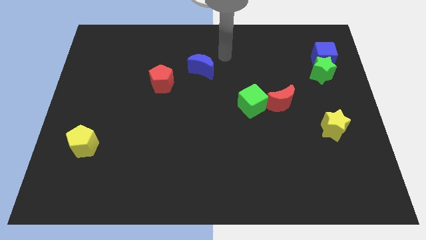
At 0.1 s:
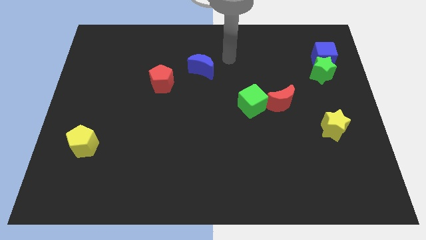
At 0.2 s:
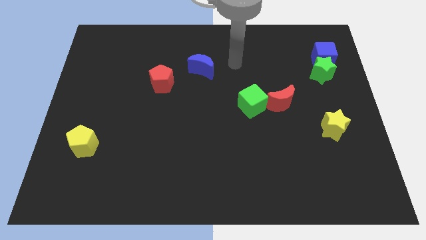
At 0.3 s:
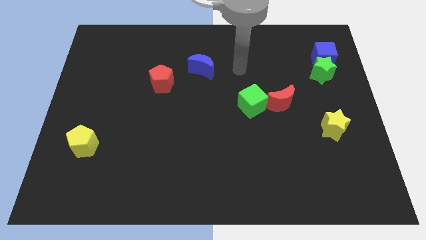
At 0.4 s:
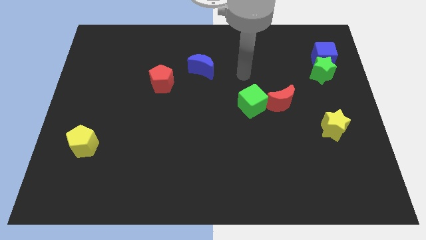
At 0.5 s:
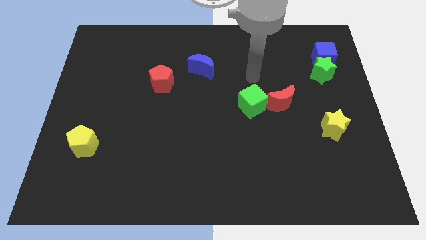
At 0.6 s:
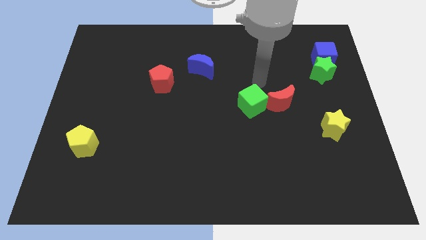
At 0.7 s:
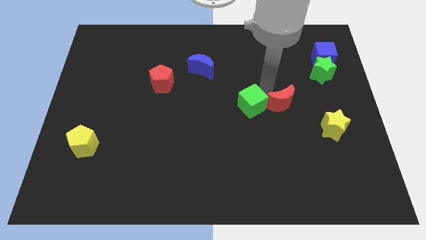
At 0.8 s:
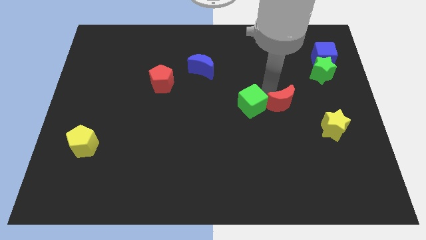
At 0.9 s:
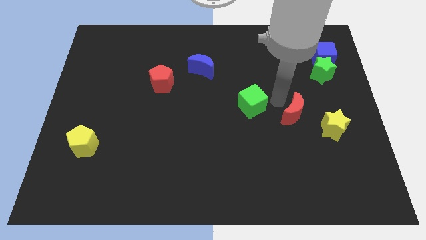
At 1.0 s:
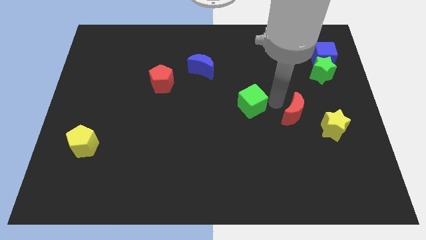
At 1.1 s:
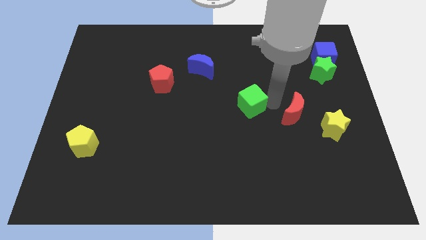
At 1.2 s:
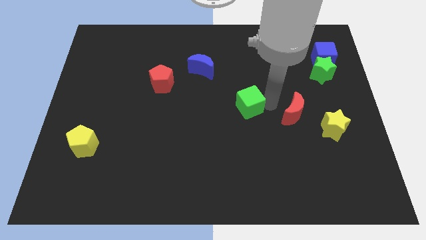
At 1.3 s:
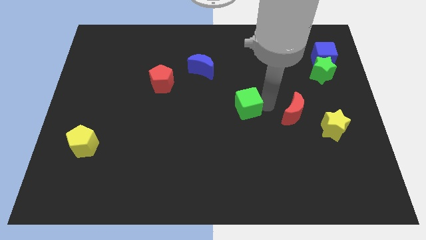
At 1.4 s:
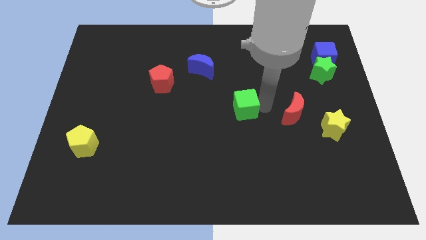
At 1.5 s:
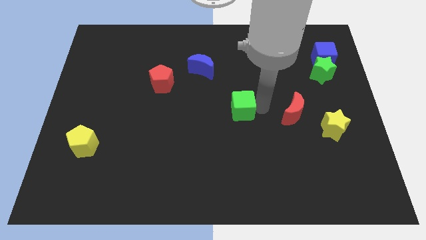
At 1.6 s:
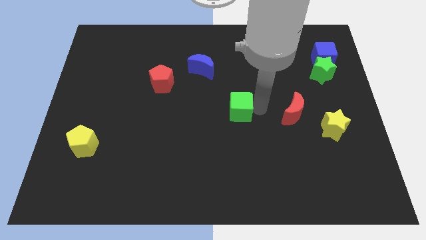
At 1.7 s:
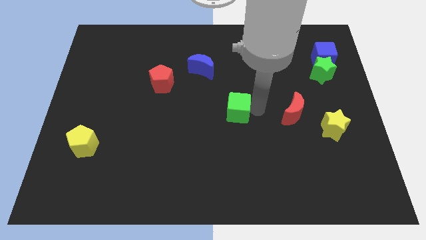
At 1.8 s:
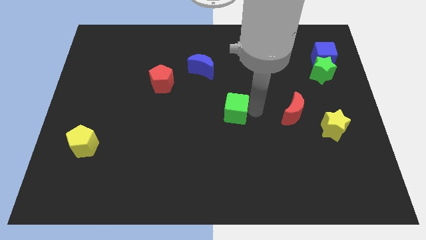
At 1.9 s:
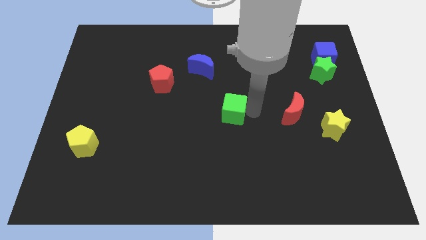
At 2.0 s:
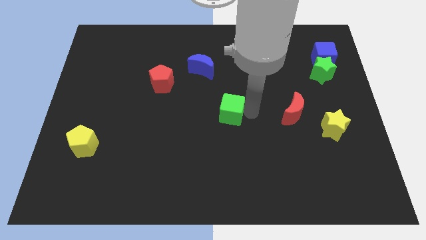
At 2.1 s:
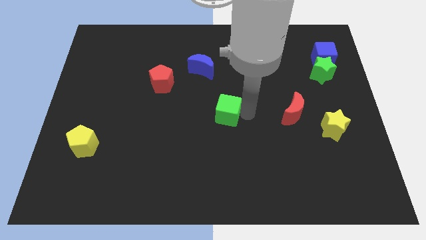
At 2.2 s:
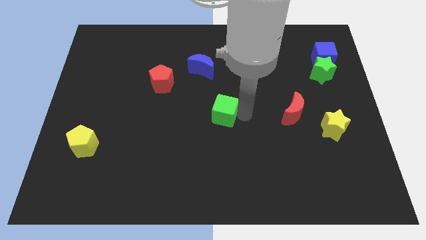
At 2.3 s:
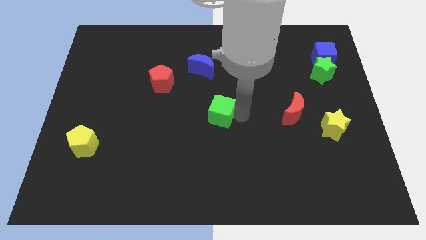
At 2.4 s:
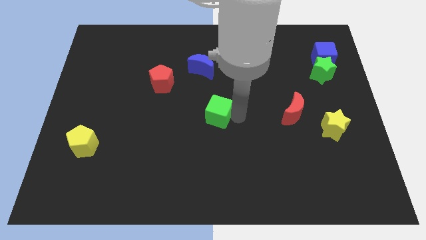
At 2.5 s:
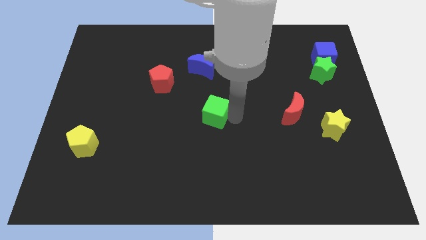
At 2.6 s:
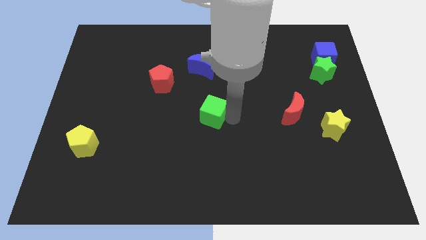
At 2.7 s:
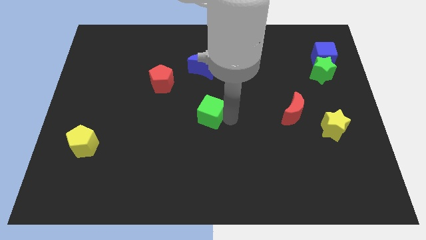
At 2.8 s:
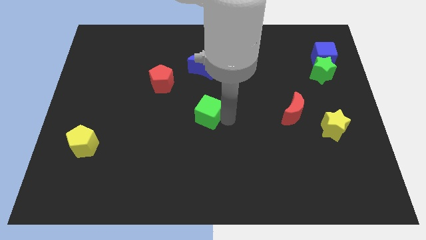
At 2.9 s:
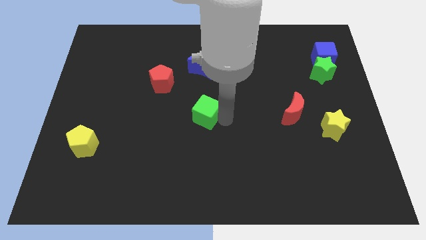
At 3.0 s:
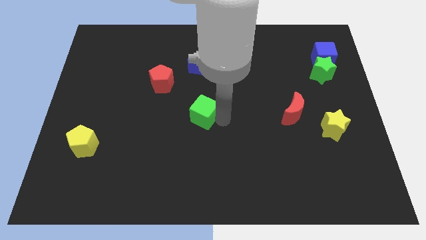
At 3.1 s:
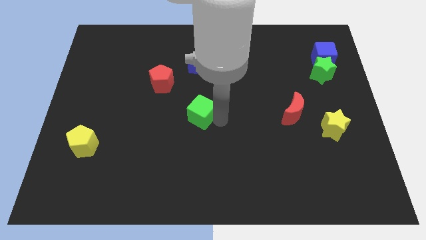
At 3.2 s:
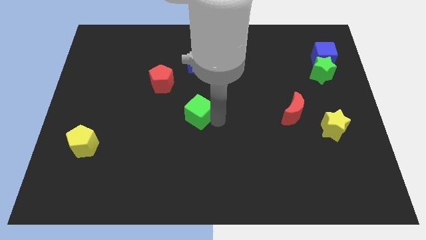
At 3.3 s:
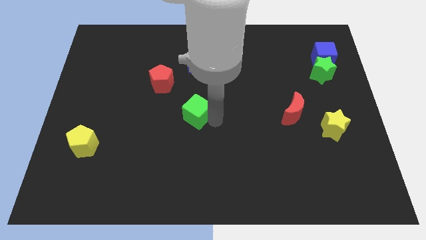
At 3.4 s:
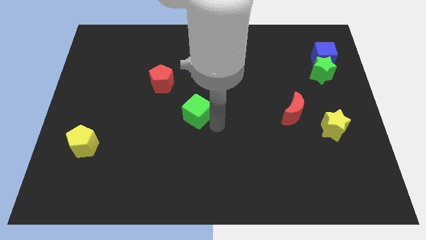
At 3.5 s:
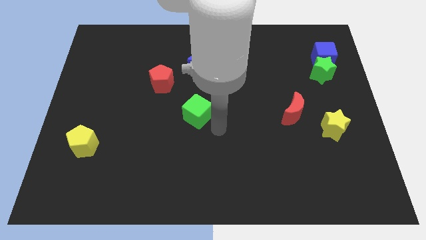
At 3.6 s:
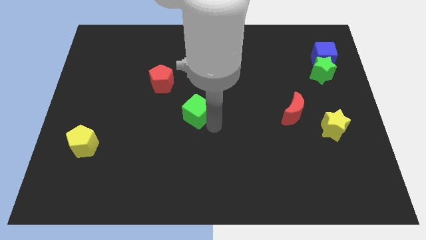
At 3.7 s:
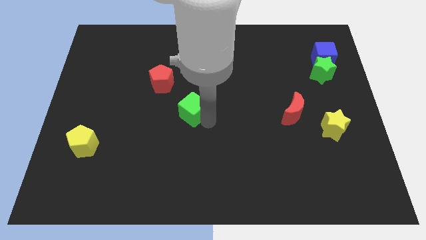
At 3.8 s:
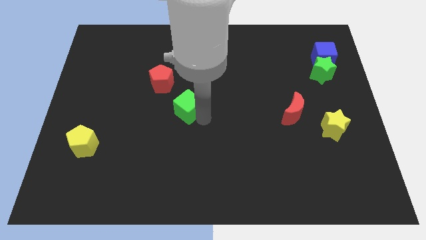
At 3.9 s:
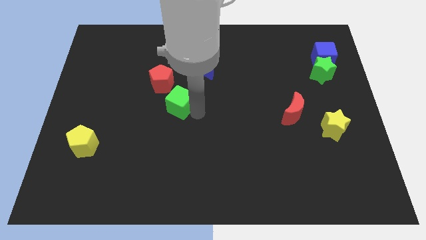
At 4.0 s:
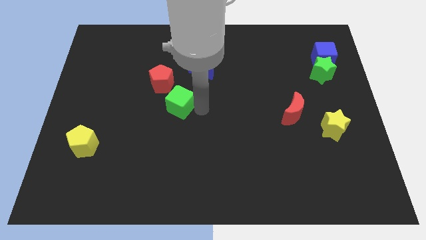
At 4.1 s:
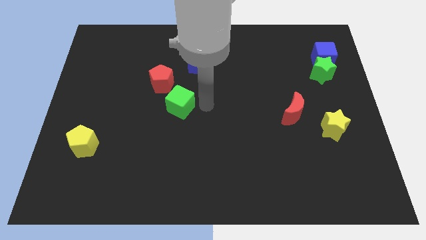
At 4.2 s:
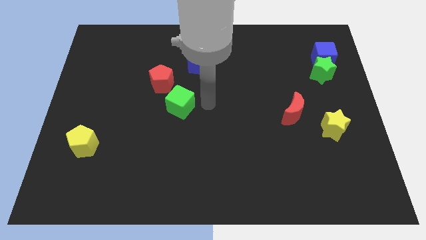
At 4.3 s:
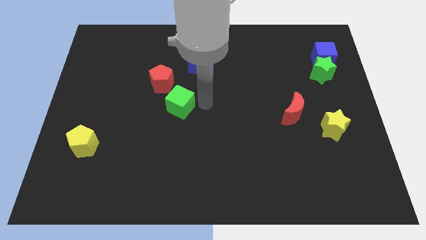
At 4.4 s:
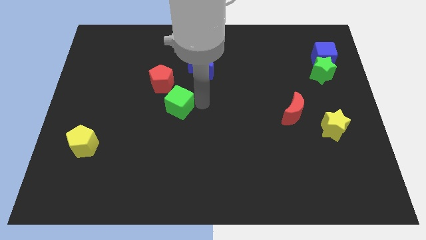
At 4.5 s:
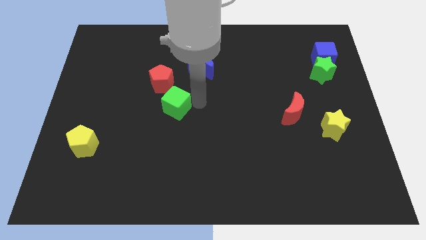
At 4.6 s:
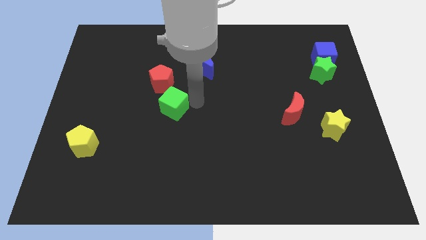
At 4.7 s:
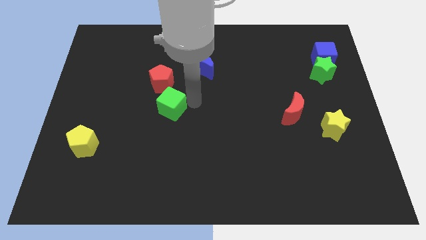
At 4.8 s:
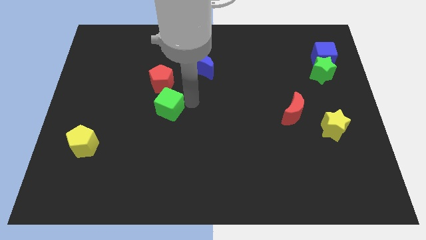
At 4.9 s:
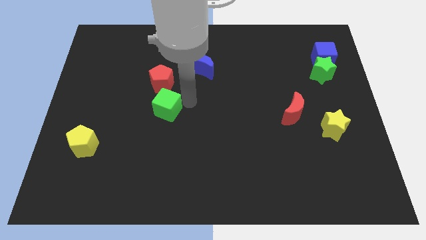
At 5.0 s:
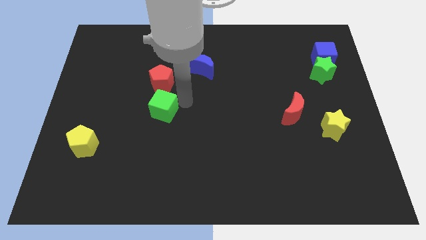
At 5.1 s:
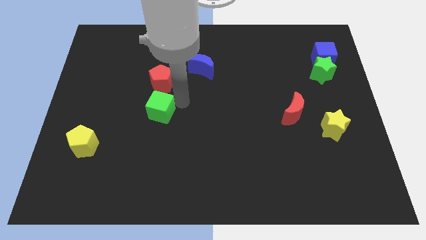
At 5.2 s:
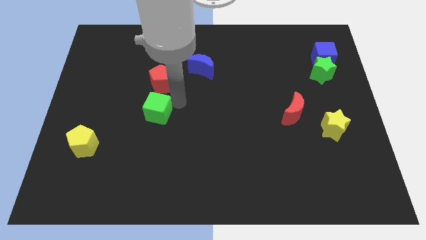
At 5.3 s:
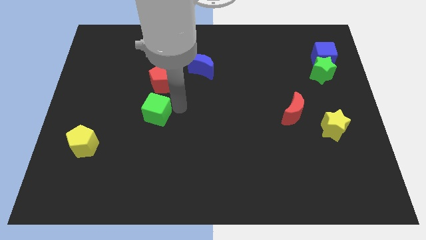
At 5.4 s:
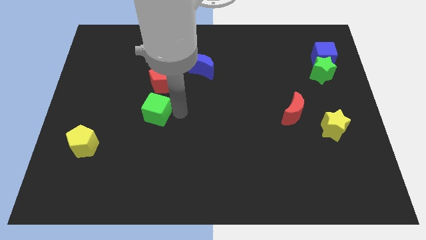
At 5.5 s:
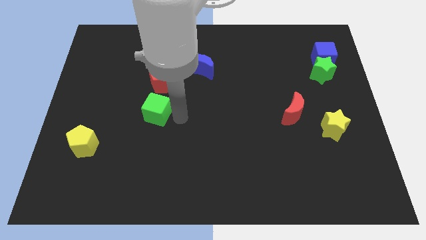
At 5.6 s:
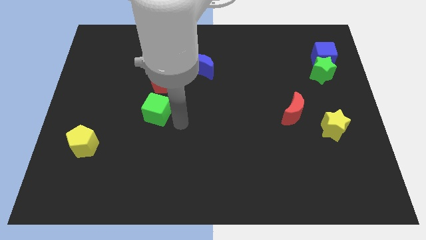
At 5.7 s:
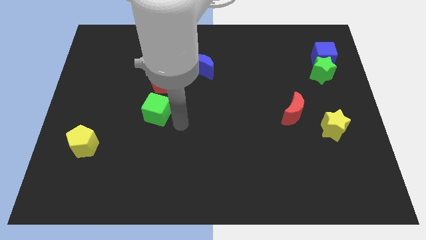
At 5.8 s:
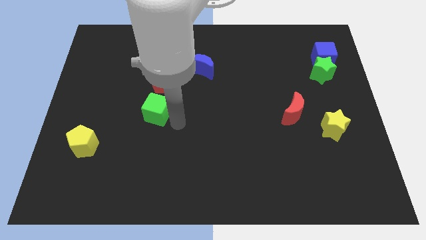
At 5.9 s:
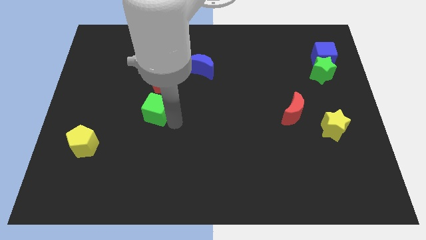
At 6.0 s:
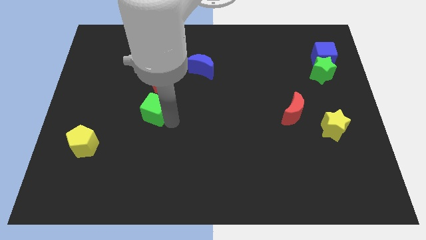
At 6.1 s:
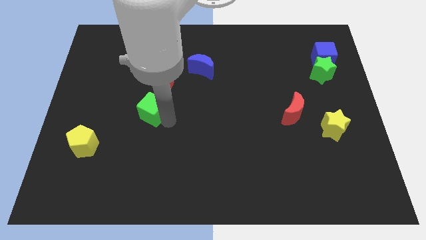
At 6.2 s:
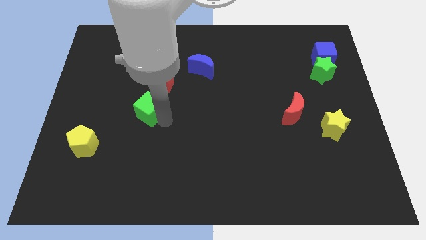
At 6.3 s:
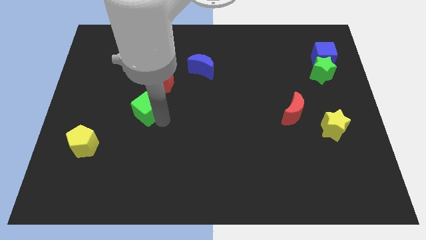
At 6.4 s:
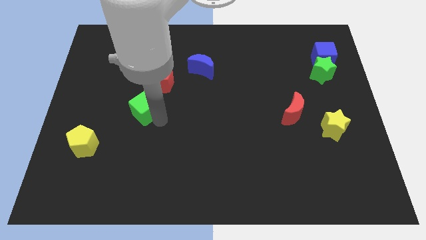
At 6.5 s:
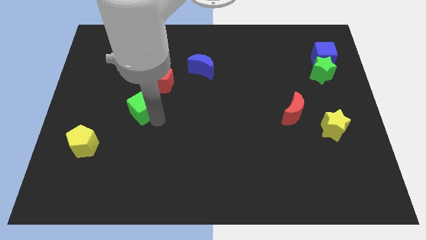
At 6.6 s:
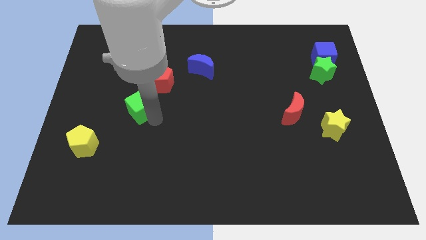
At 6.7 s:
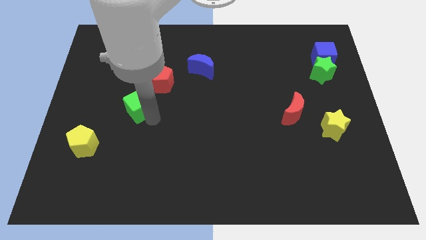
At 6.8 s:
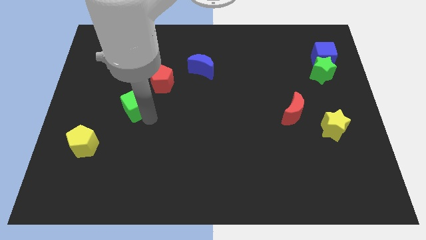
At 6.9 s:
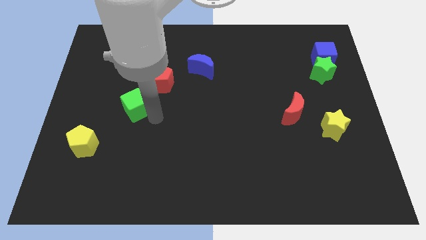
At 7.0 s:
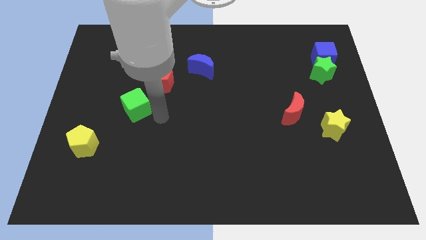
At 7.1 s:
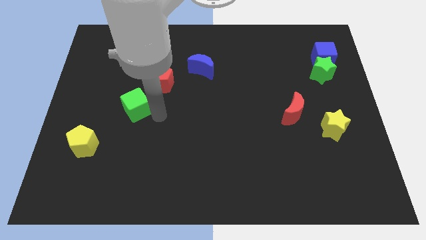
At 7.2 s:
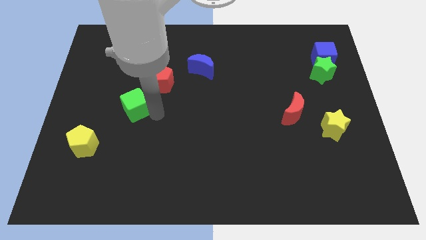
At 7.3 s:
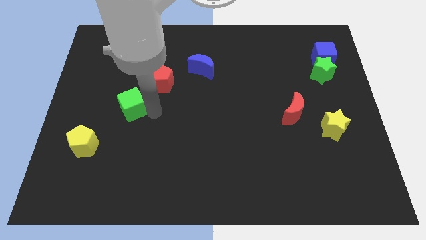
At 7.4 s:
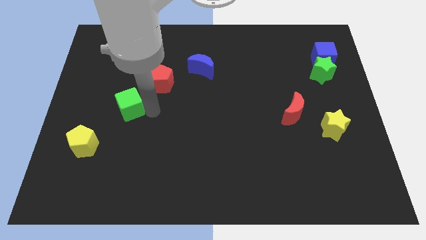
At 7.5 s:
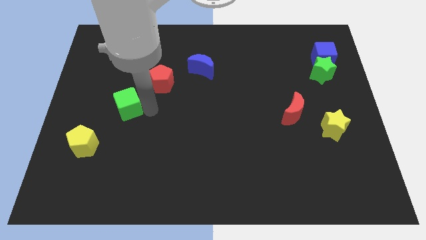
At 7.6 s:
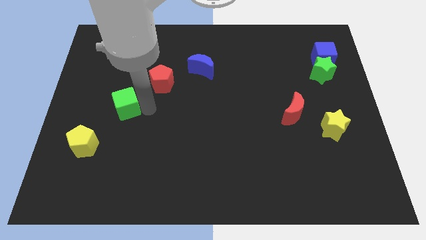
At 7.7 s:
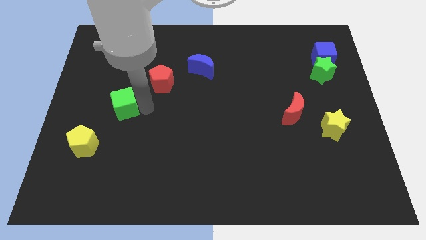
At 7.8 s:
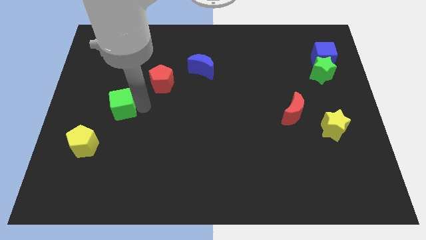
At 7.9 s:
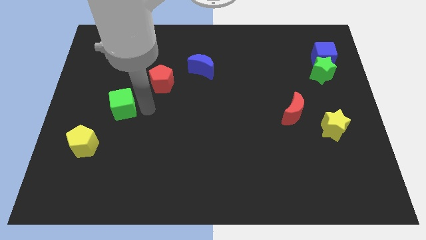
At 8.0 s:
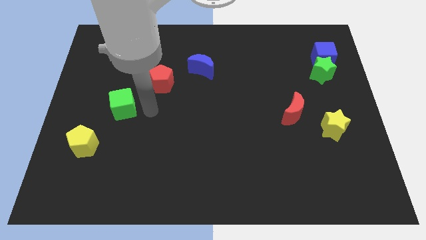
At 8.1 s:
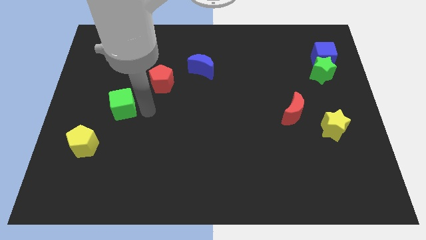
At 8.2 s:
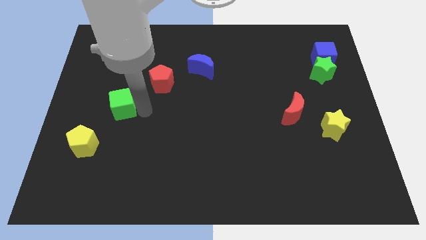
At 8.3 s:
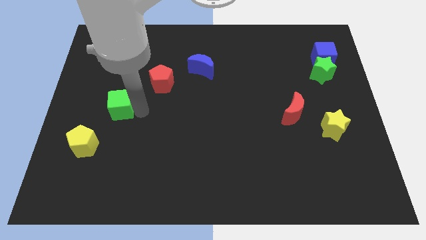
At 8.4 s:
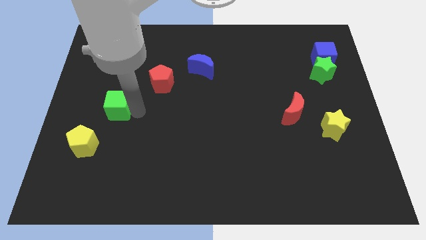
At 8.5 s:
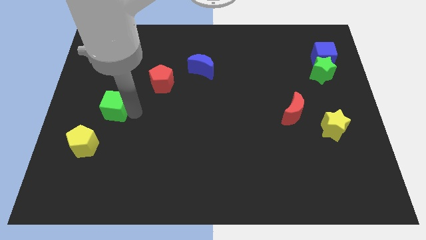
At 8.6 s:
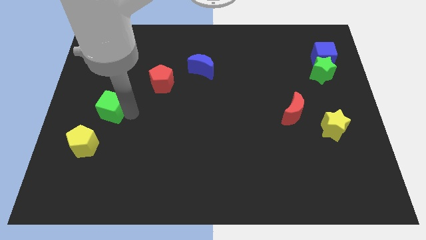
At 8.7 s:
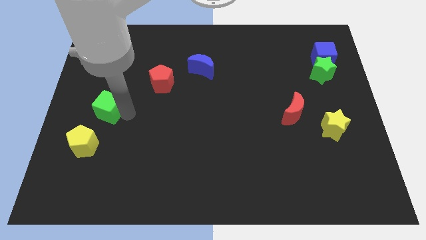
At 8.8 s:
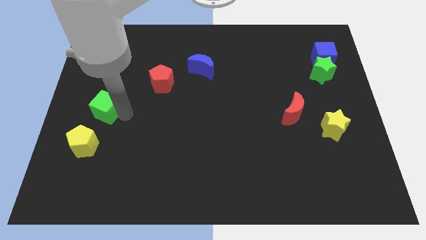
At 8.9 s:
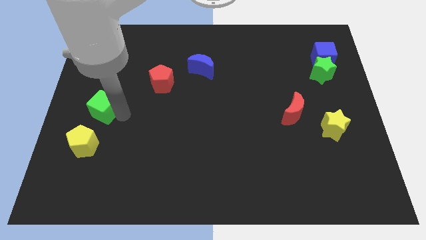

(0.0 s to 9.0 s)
push the green cube to the left side
